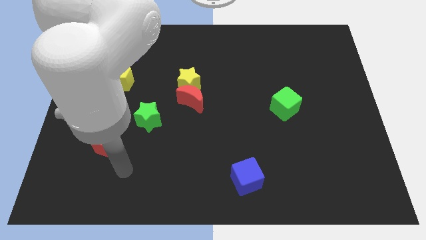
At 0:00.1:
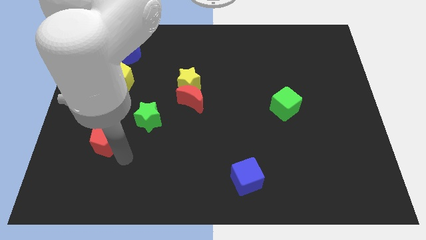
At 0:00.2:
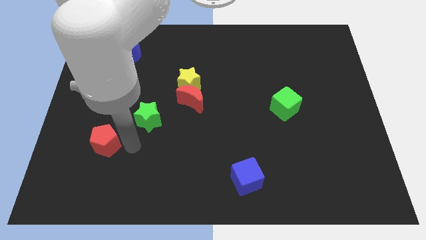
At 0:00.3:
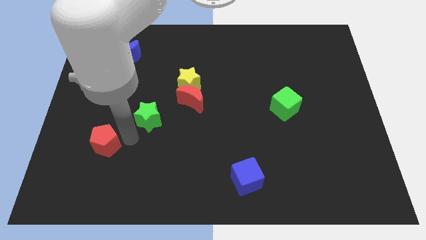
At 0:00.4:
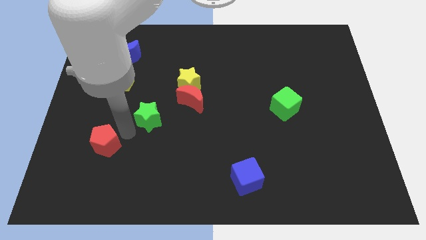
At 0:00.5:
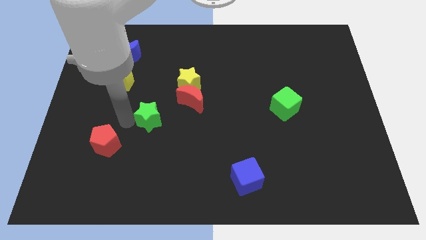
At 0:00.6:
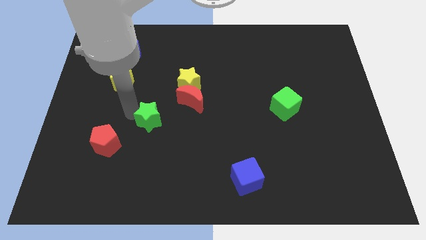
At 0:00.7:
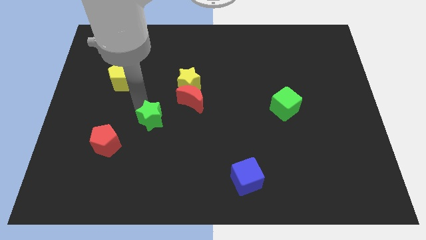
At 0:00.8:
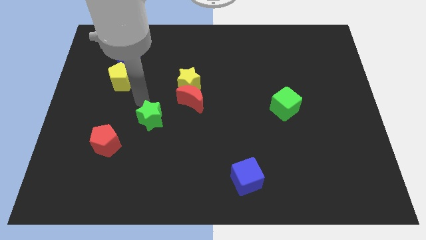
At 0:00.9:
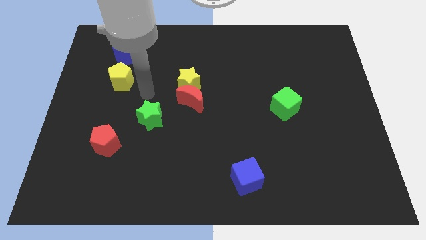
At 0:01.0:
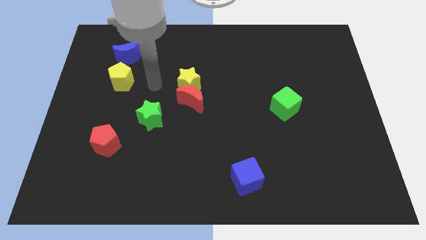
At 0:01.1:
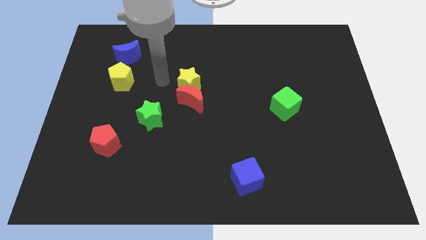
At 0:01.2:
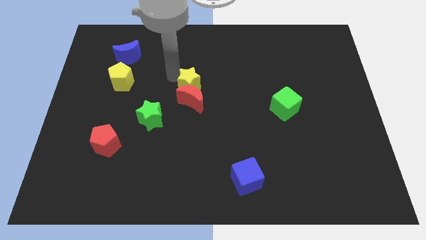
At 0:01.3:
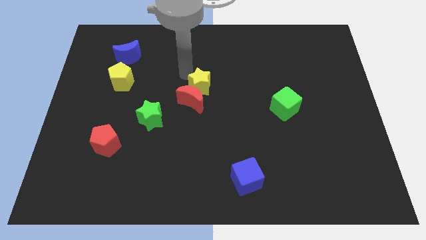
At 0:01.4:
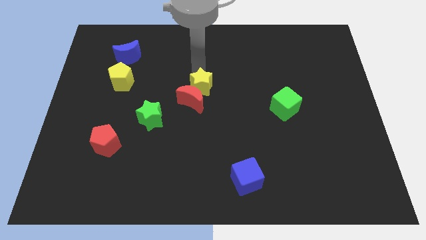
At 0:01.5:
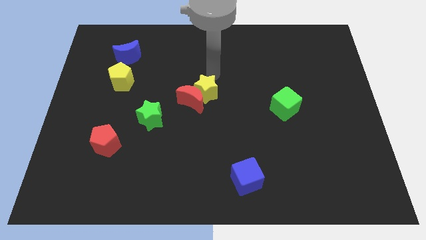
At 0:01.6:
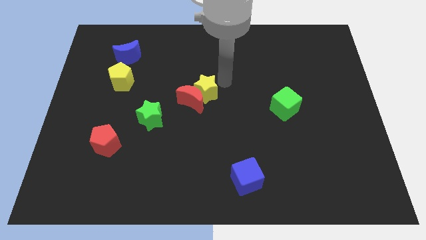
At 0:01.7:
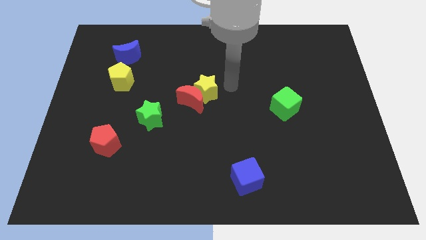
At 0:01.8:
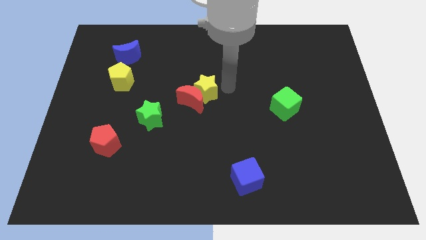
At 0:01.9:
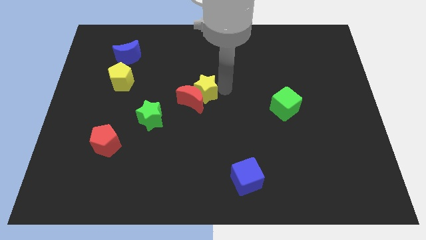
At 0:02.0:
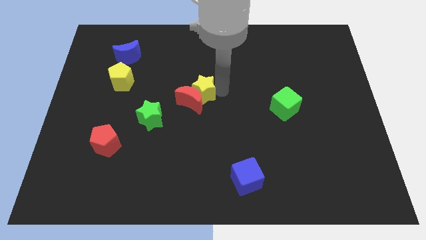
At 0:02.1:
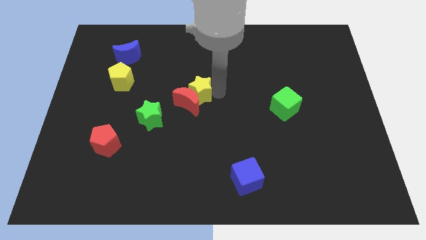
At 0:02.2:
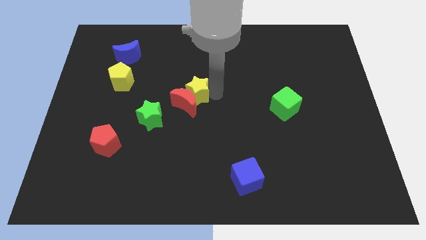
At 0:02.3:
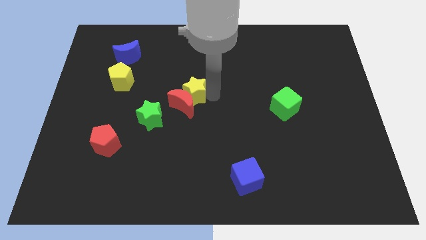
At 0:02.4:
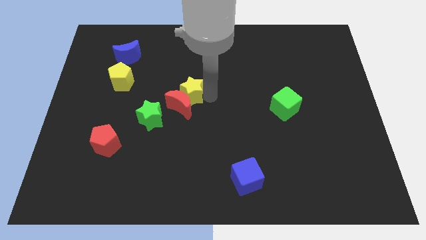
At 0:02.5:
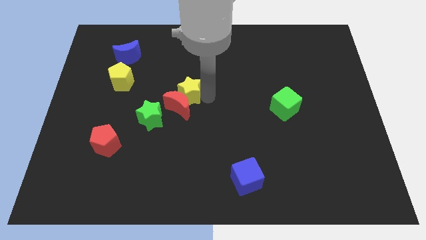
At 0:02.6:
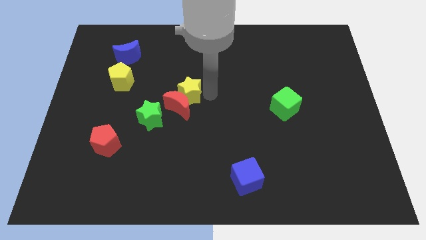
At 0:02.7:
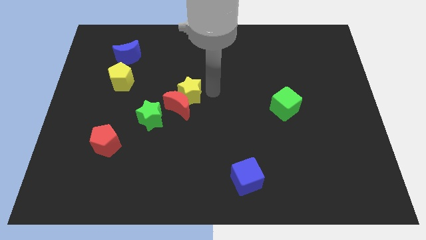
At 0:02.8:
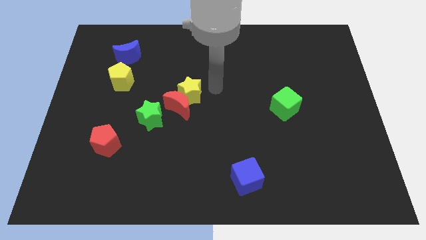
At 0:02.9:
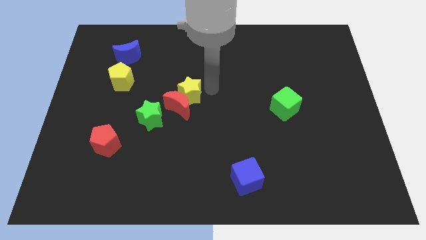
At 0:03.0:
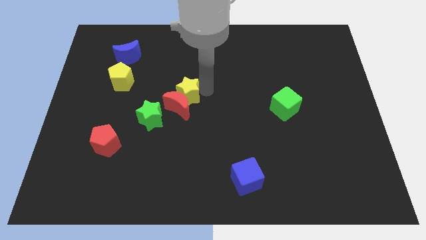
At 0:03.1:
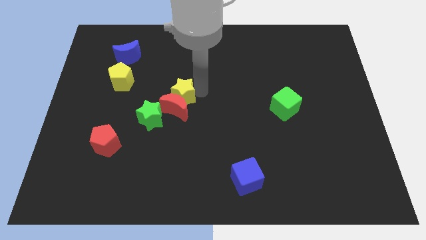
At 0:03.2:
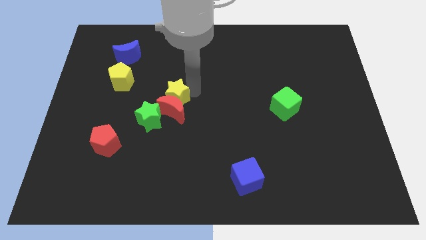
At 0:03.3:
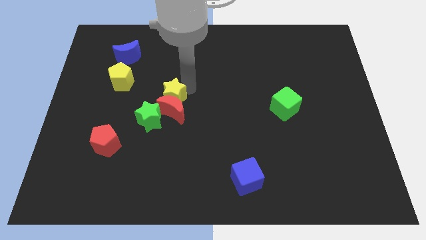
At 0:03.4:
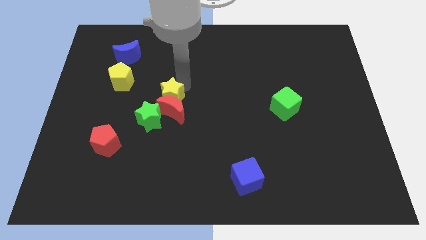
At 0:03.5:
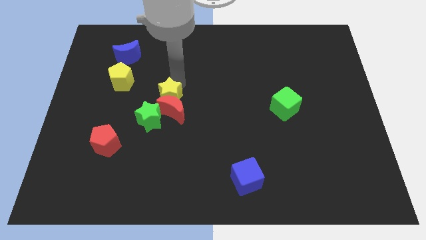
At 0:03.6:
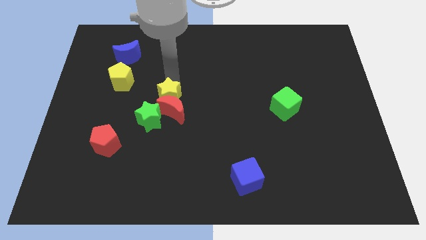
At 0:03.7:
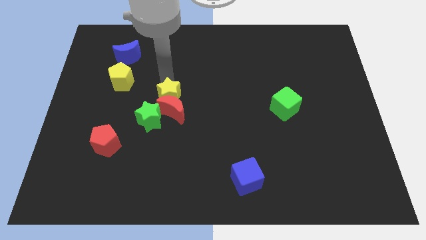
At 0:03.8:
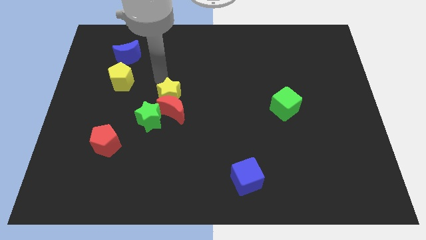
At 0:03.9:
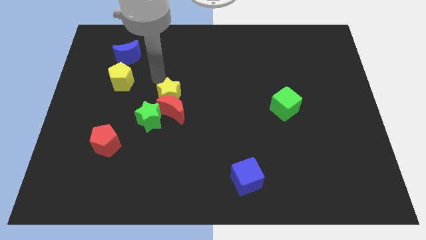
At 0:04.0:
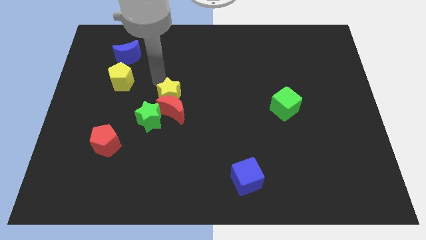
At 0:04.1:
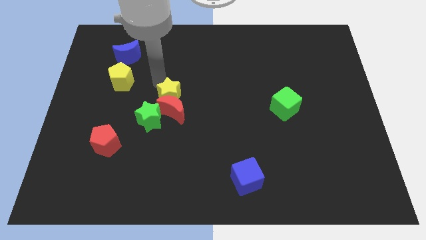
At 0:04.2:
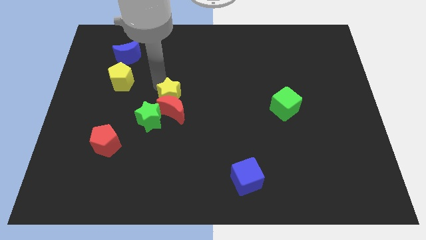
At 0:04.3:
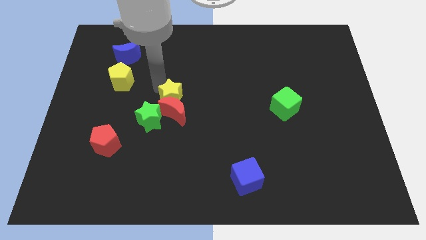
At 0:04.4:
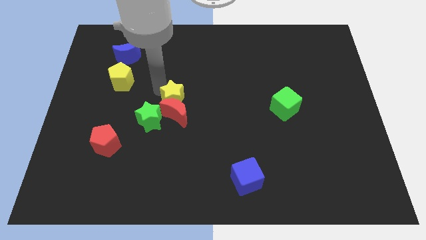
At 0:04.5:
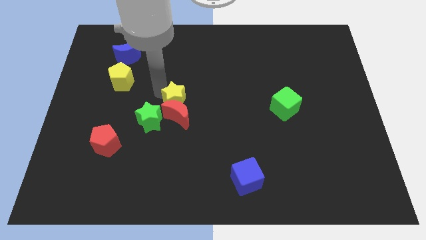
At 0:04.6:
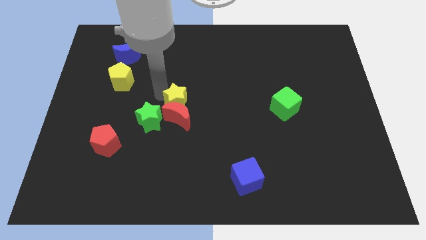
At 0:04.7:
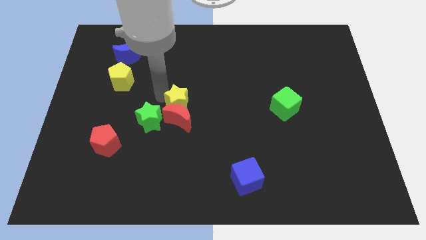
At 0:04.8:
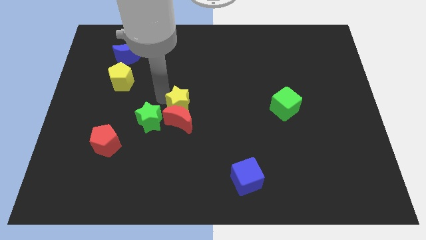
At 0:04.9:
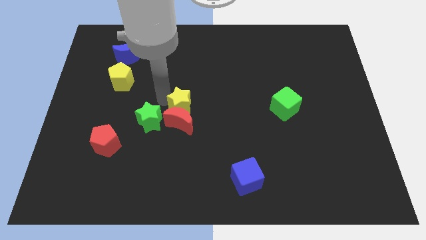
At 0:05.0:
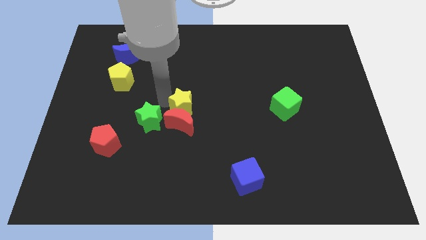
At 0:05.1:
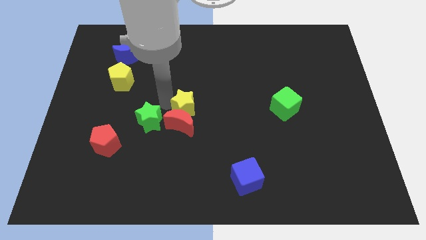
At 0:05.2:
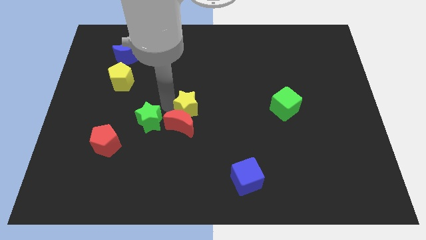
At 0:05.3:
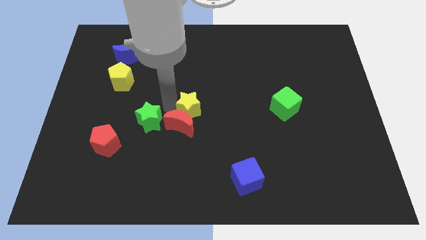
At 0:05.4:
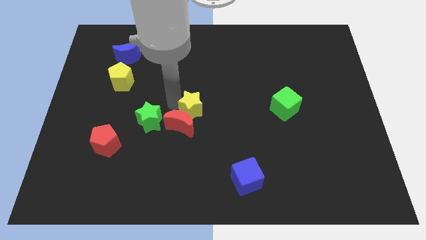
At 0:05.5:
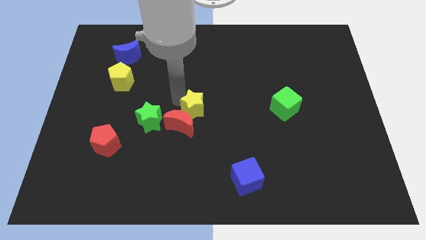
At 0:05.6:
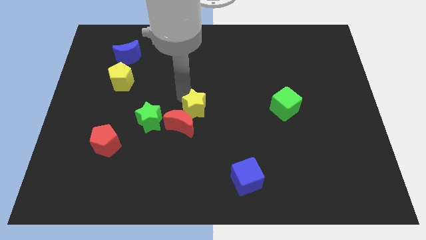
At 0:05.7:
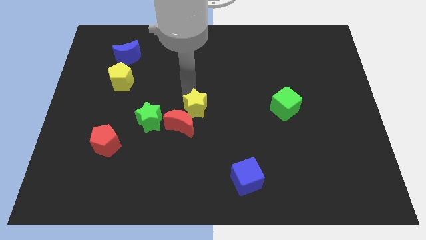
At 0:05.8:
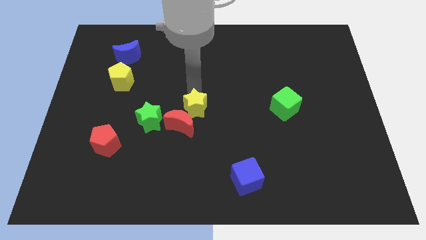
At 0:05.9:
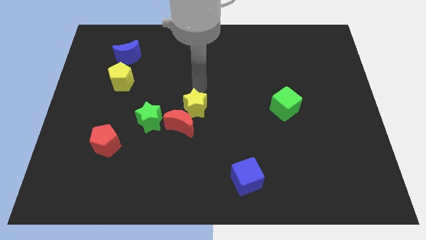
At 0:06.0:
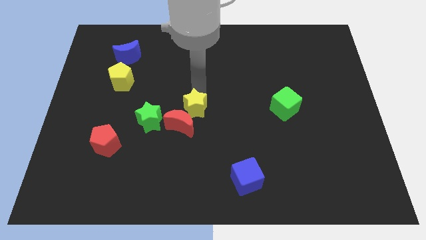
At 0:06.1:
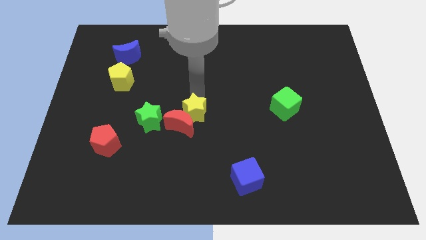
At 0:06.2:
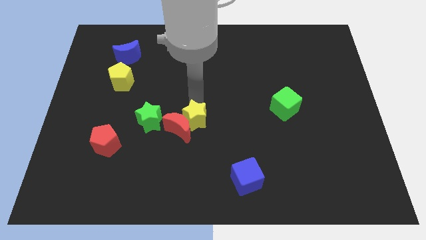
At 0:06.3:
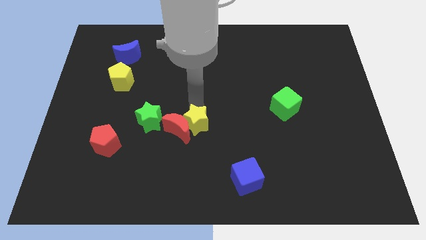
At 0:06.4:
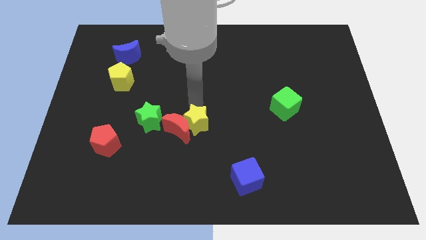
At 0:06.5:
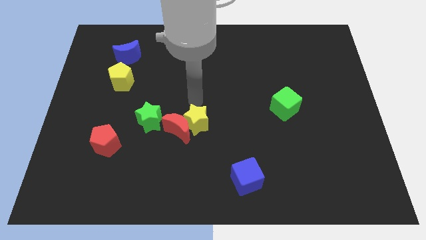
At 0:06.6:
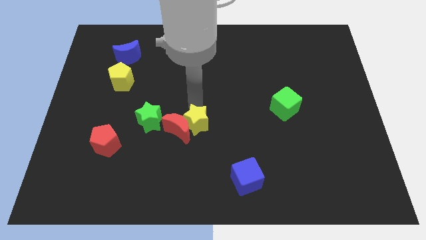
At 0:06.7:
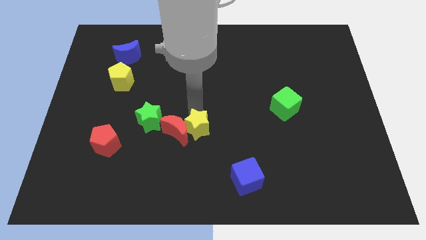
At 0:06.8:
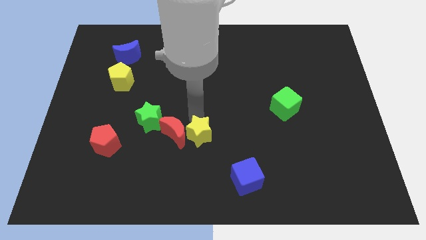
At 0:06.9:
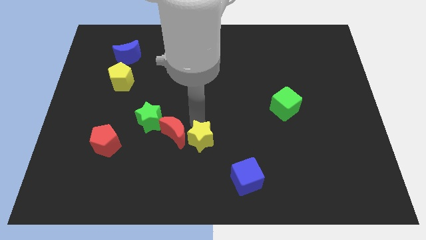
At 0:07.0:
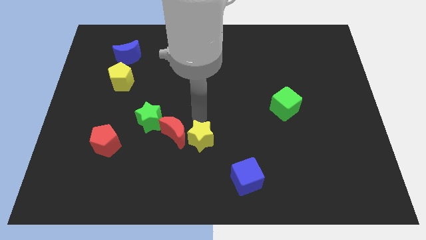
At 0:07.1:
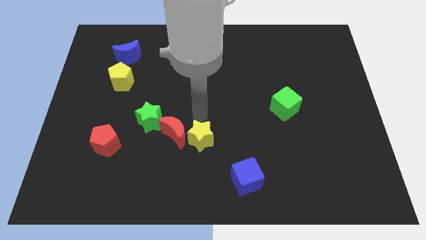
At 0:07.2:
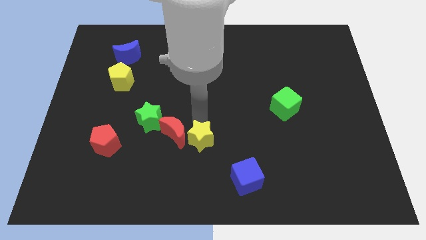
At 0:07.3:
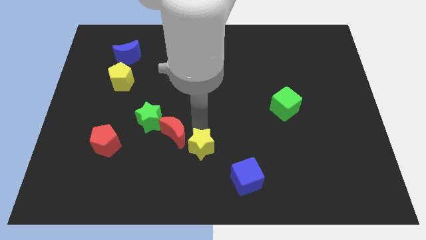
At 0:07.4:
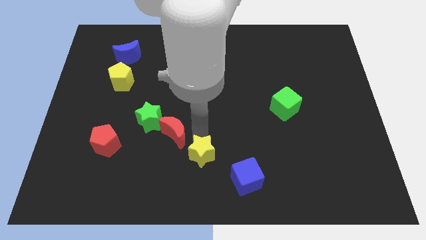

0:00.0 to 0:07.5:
put the yellow star to the bottom
